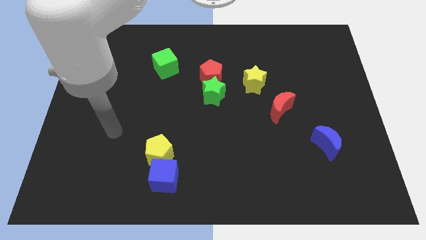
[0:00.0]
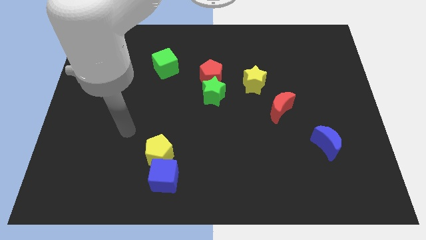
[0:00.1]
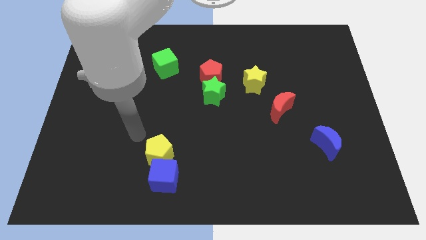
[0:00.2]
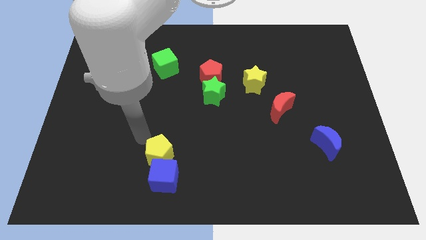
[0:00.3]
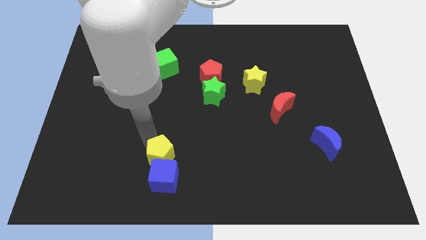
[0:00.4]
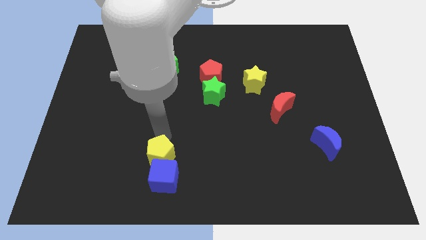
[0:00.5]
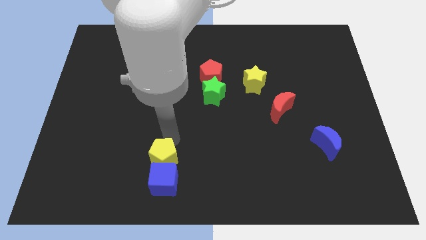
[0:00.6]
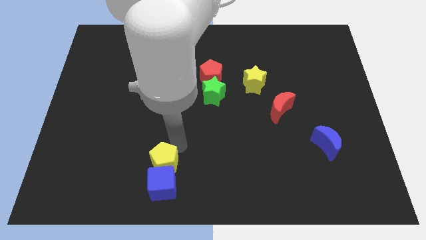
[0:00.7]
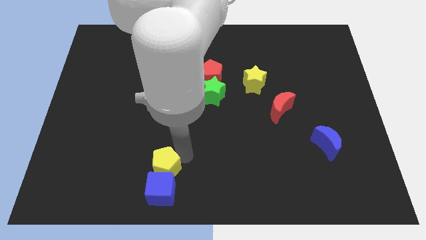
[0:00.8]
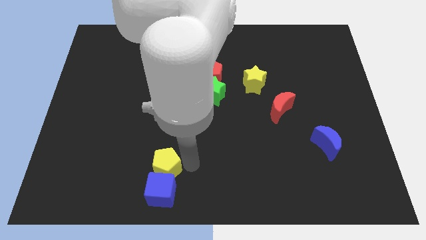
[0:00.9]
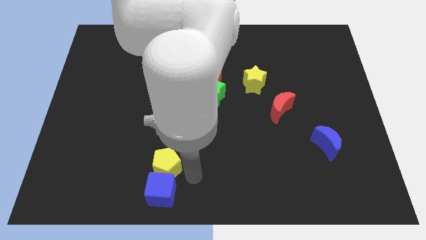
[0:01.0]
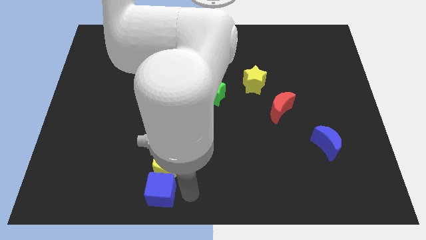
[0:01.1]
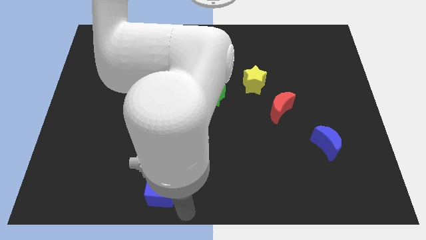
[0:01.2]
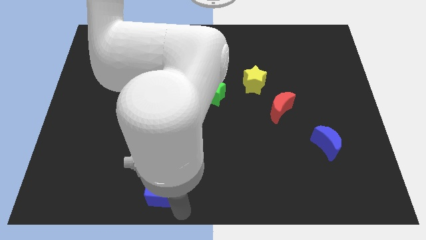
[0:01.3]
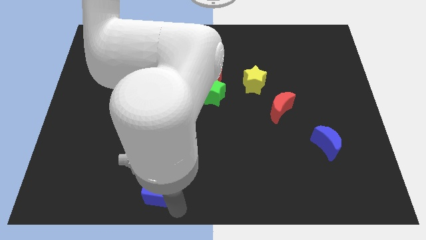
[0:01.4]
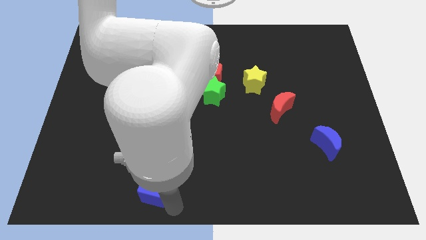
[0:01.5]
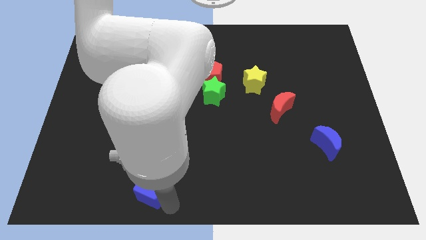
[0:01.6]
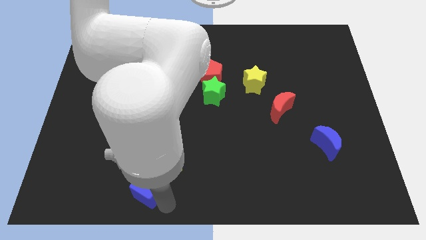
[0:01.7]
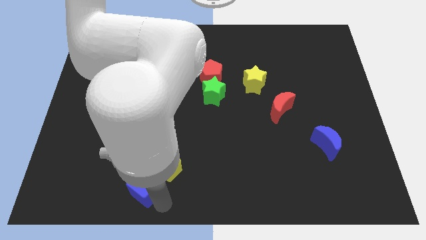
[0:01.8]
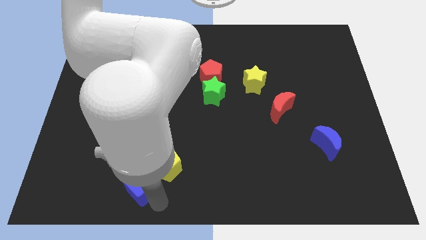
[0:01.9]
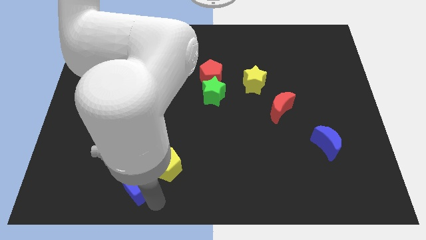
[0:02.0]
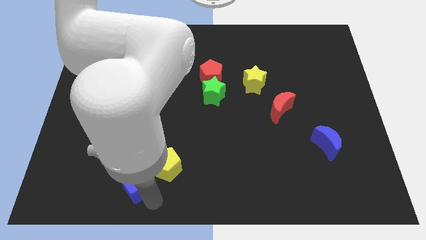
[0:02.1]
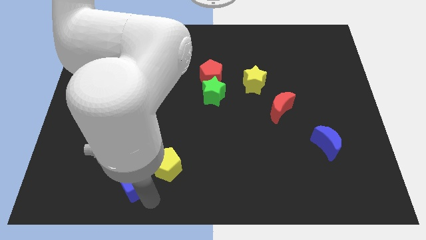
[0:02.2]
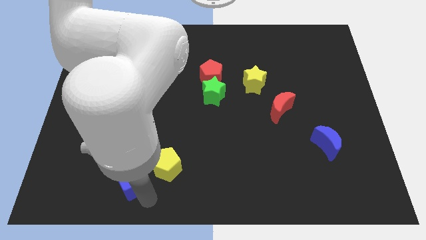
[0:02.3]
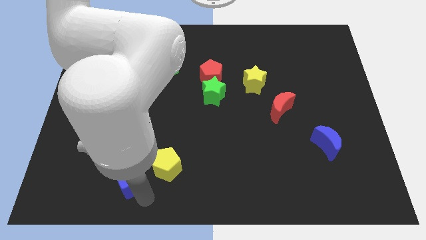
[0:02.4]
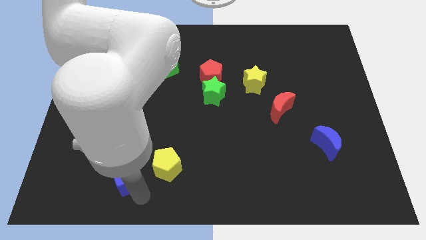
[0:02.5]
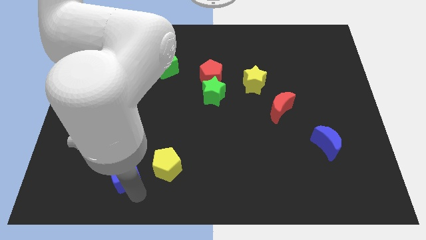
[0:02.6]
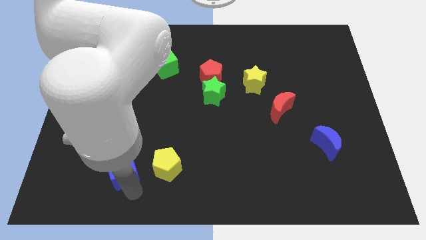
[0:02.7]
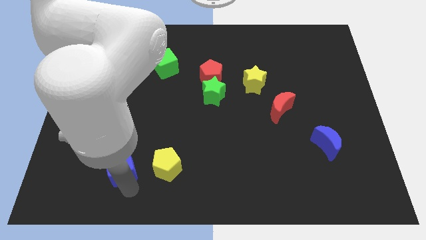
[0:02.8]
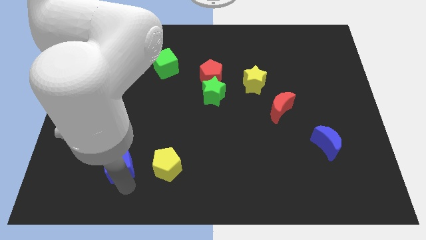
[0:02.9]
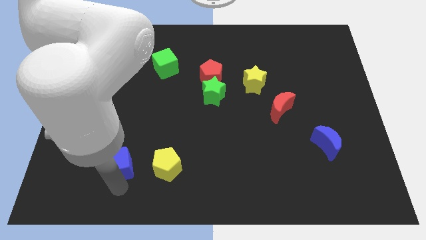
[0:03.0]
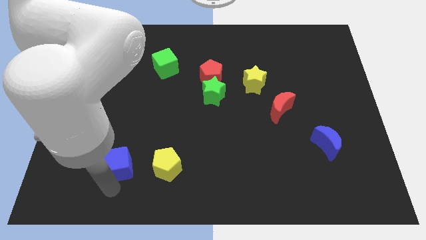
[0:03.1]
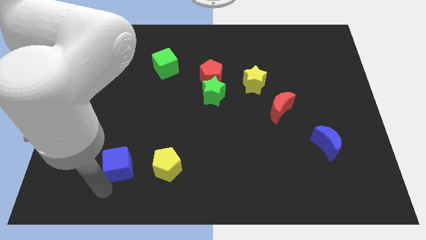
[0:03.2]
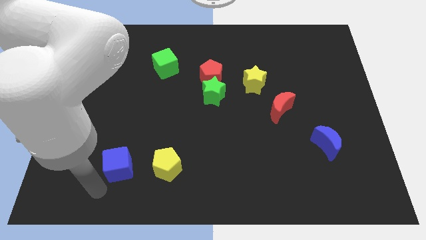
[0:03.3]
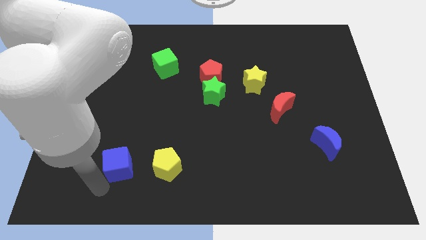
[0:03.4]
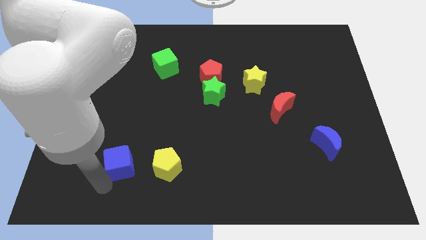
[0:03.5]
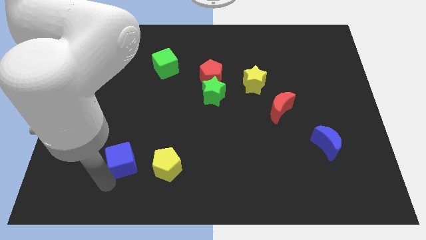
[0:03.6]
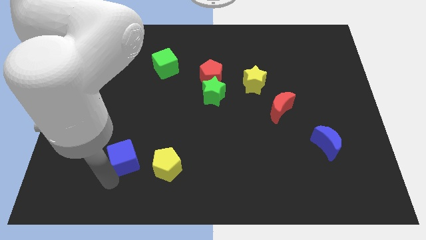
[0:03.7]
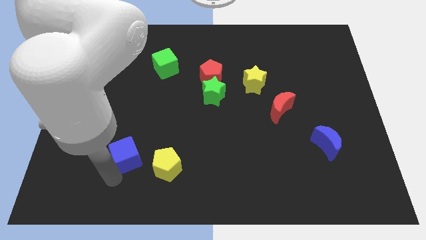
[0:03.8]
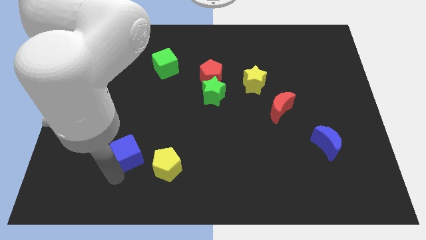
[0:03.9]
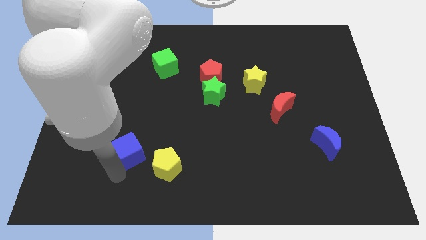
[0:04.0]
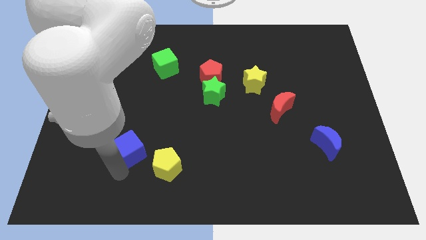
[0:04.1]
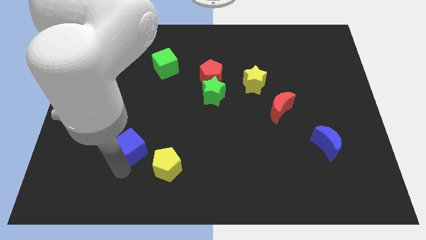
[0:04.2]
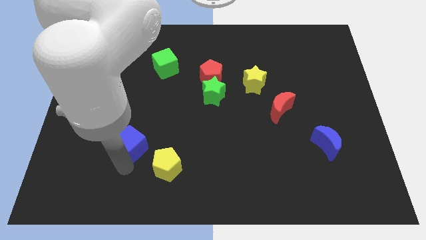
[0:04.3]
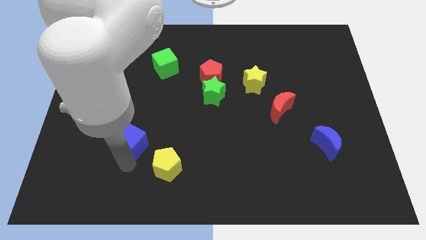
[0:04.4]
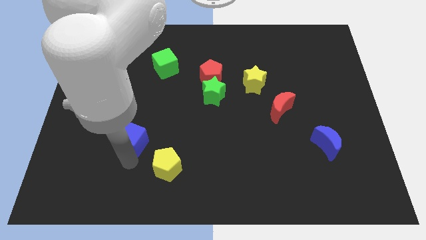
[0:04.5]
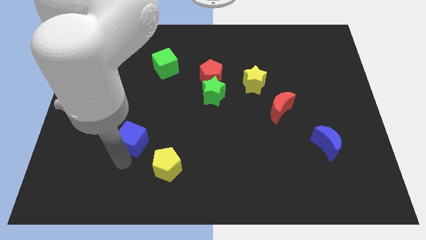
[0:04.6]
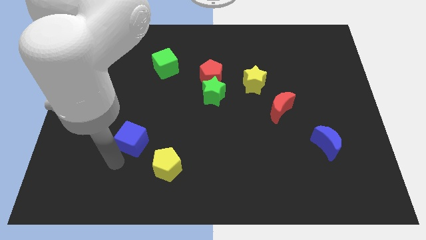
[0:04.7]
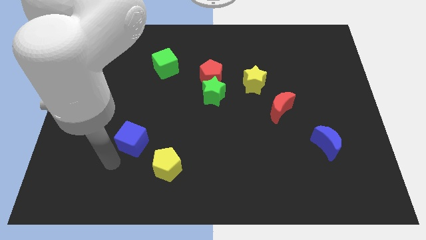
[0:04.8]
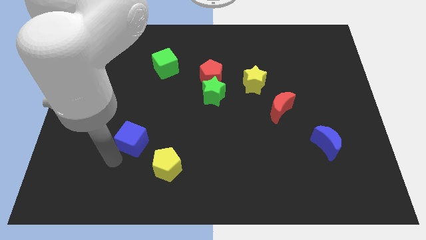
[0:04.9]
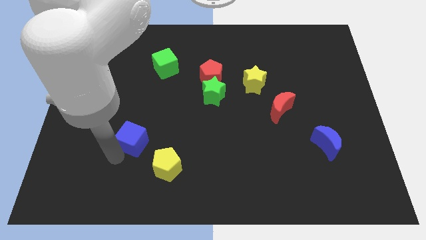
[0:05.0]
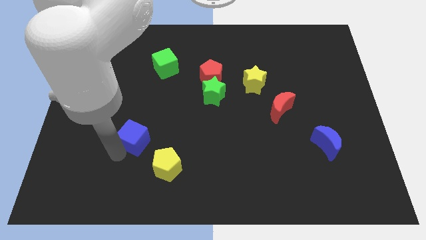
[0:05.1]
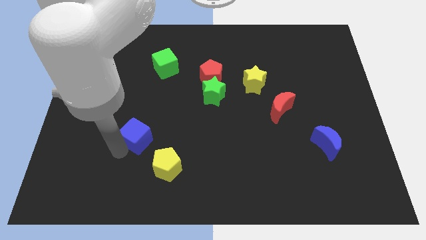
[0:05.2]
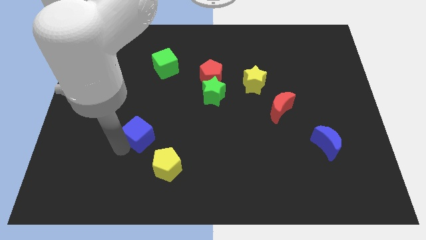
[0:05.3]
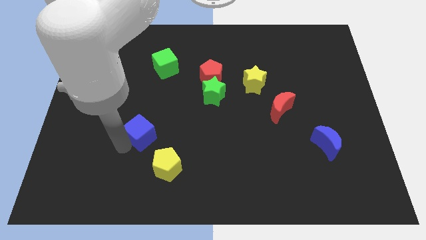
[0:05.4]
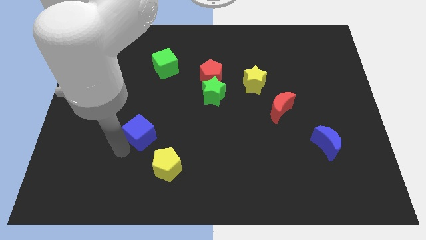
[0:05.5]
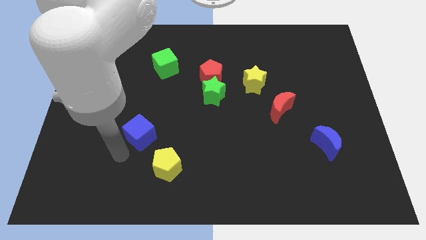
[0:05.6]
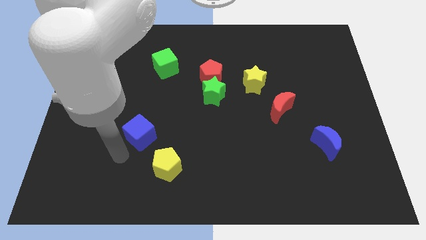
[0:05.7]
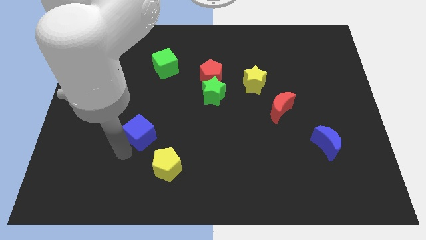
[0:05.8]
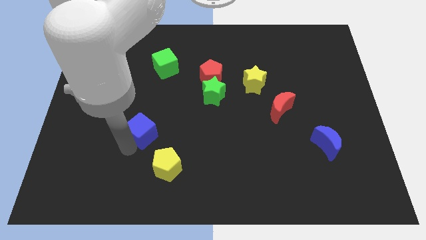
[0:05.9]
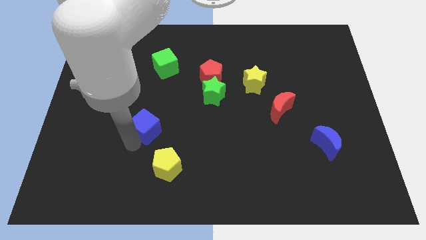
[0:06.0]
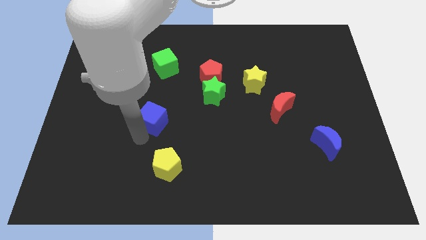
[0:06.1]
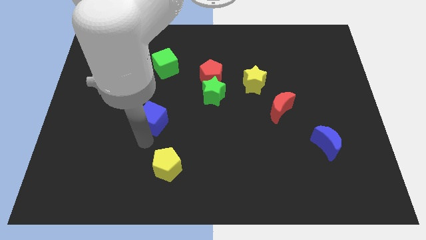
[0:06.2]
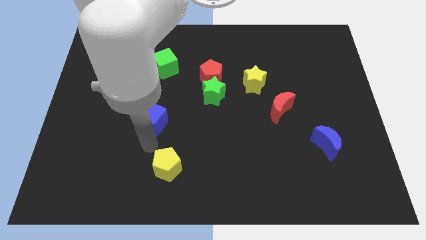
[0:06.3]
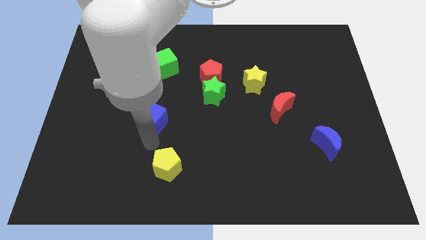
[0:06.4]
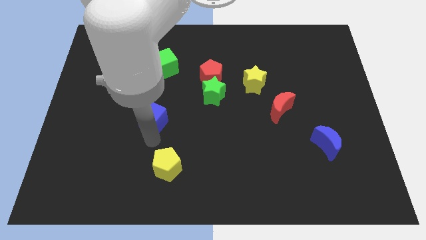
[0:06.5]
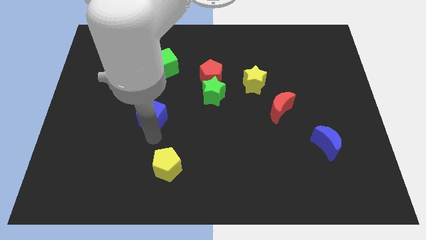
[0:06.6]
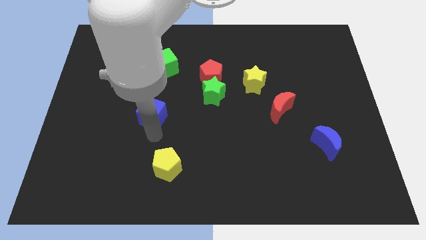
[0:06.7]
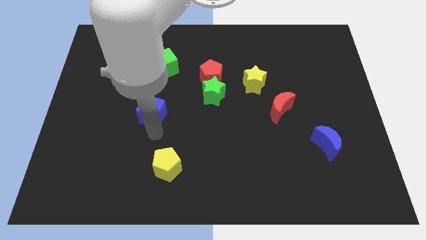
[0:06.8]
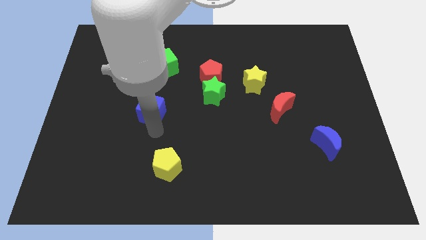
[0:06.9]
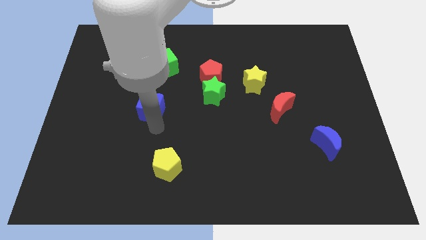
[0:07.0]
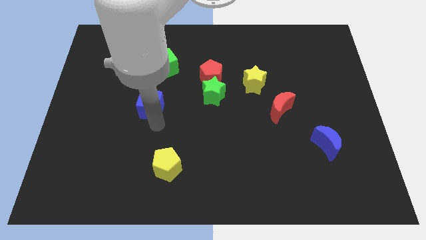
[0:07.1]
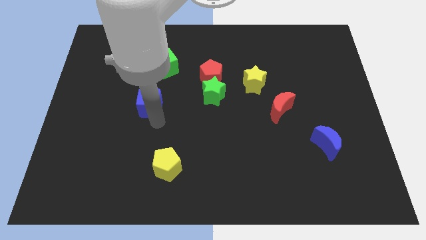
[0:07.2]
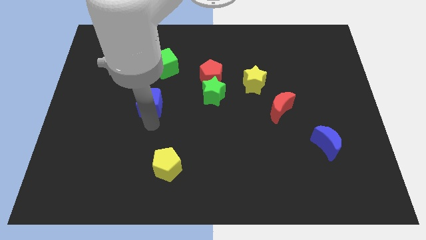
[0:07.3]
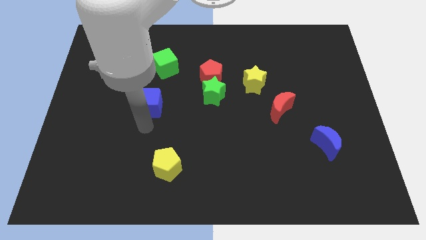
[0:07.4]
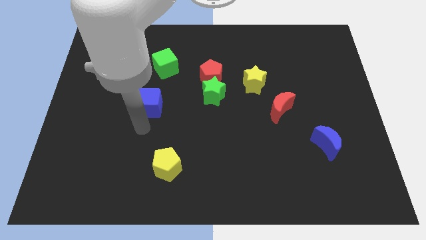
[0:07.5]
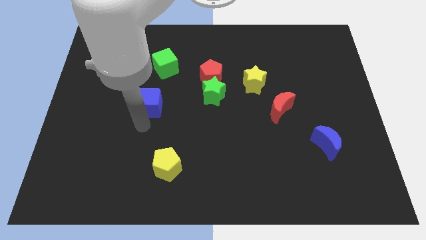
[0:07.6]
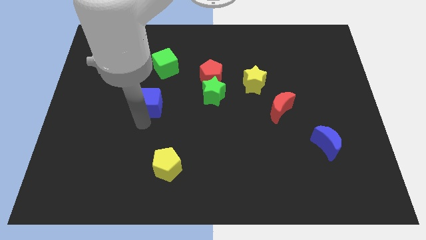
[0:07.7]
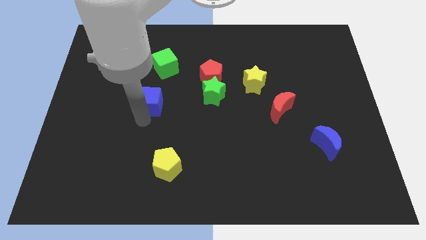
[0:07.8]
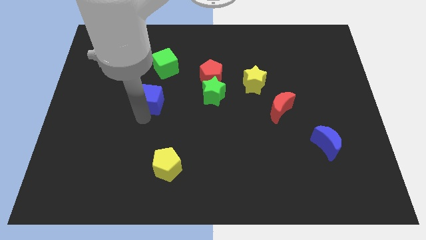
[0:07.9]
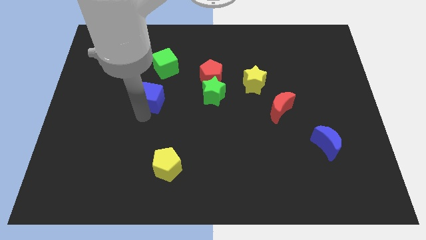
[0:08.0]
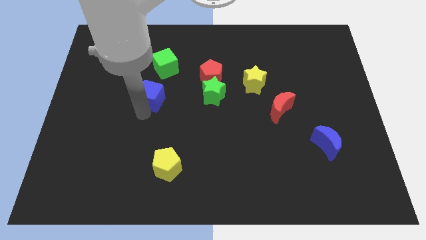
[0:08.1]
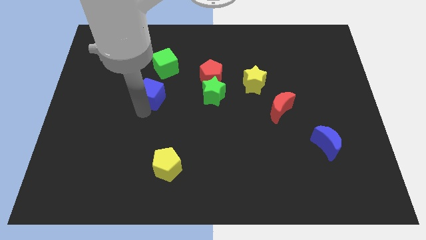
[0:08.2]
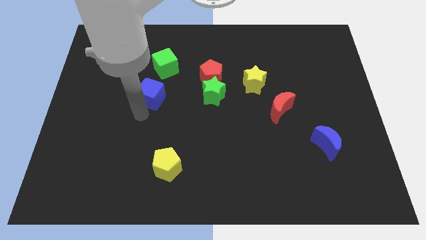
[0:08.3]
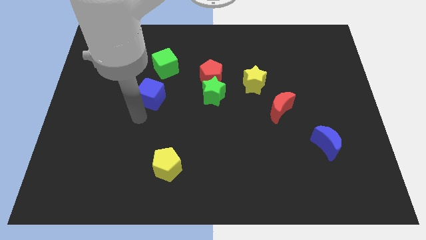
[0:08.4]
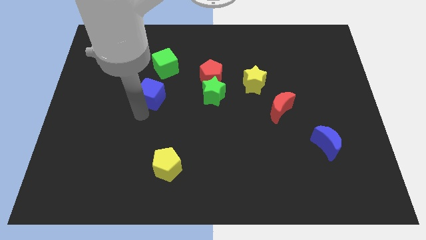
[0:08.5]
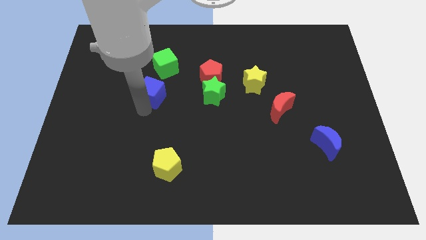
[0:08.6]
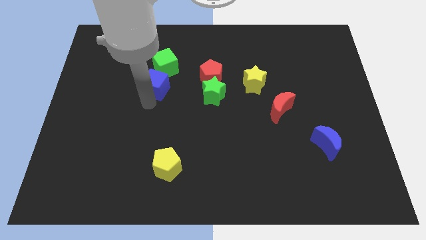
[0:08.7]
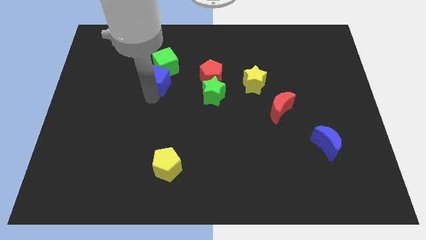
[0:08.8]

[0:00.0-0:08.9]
slide the blue cube to the green cube
